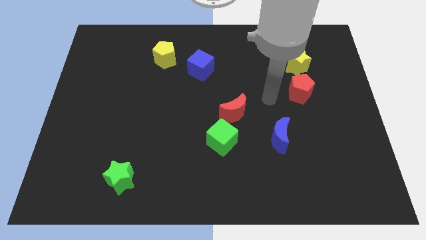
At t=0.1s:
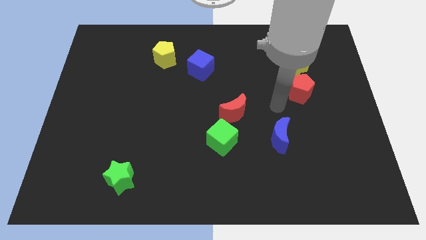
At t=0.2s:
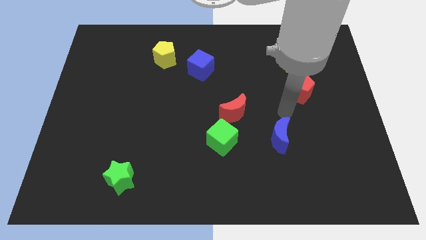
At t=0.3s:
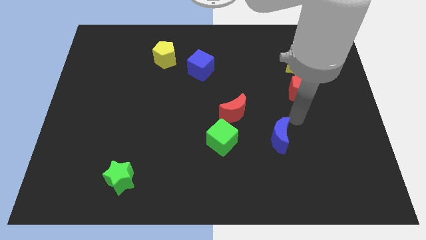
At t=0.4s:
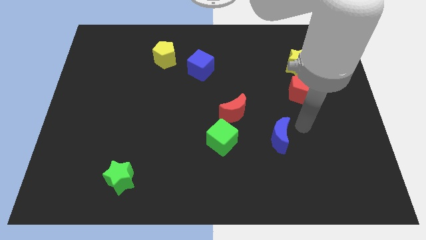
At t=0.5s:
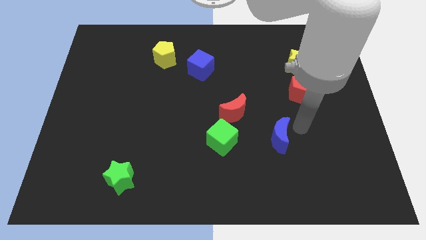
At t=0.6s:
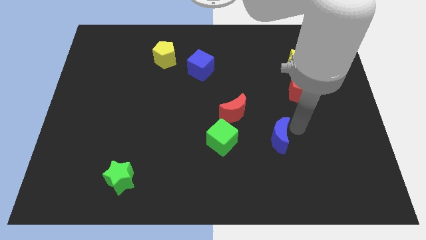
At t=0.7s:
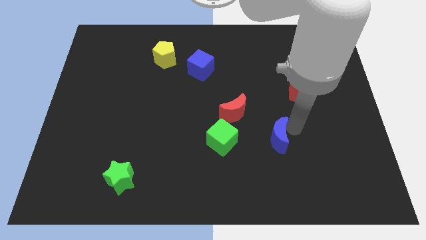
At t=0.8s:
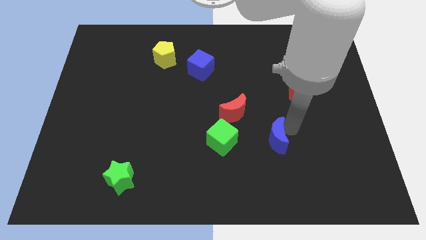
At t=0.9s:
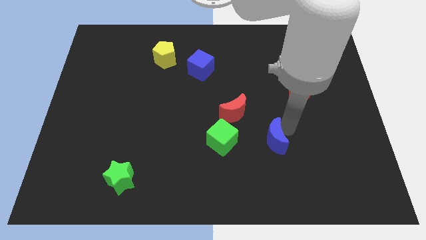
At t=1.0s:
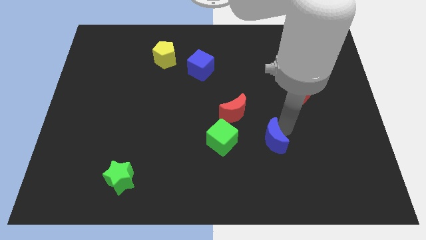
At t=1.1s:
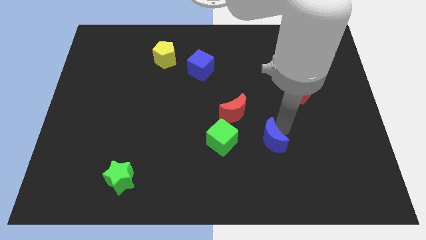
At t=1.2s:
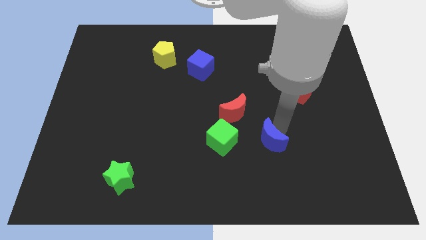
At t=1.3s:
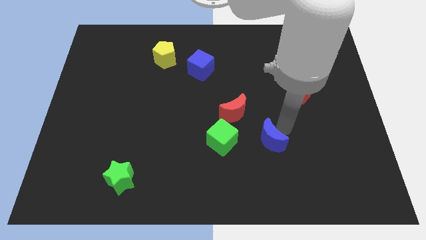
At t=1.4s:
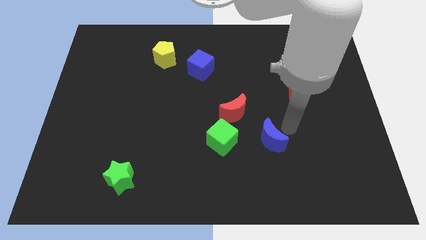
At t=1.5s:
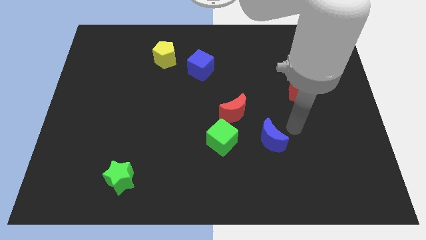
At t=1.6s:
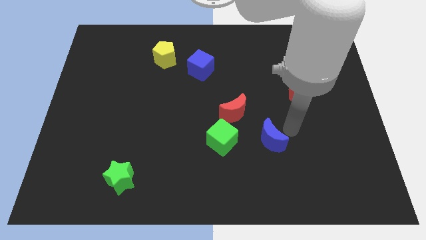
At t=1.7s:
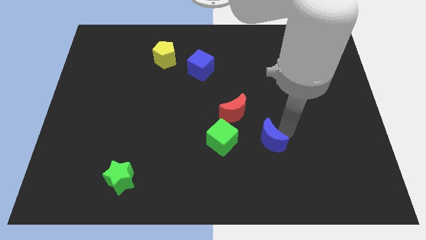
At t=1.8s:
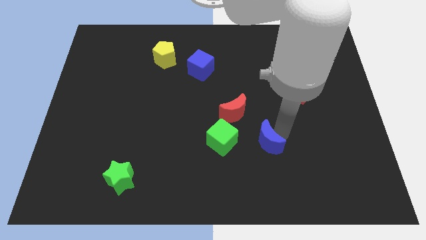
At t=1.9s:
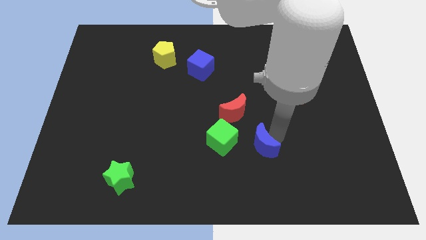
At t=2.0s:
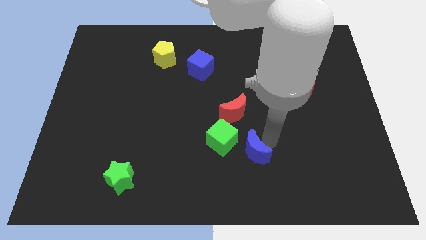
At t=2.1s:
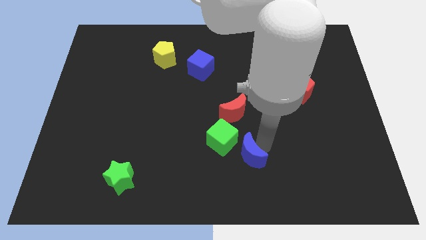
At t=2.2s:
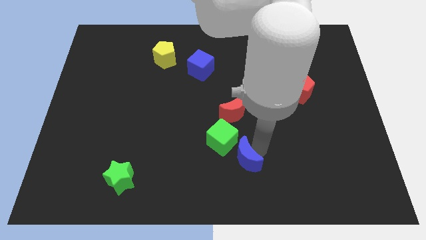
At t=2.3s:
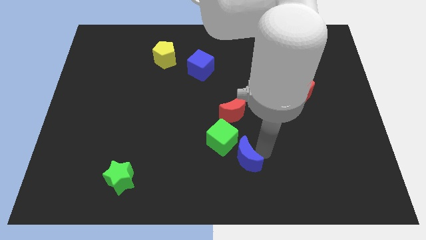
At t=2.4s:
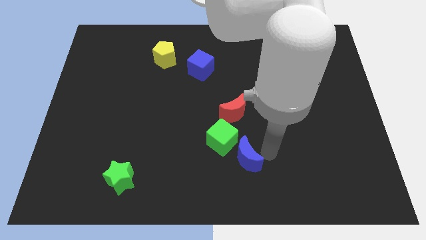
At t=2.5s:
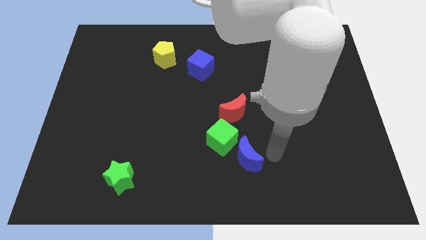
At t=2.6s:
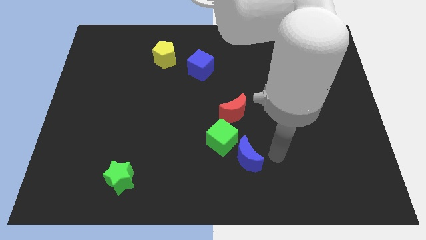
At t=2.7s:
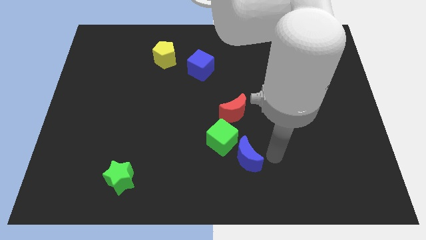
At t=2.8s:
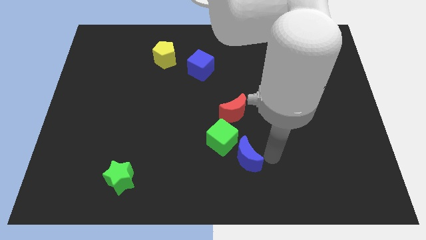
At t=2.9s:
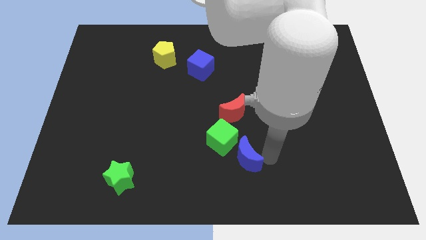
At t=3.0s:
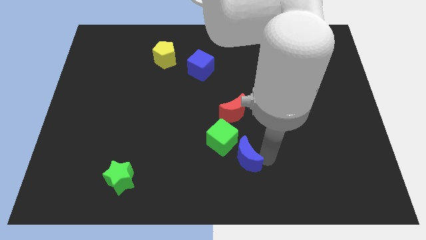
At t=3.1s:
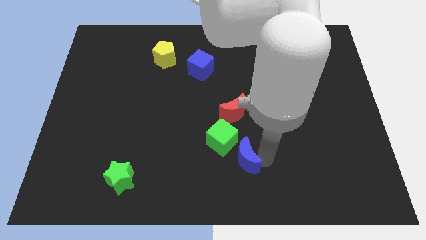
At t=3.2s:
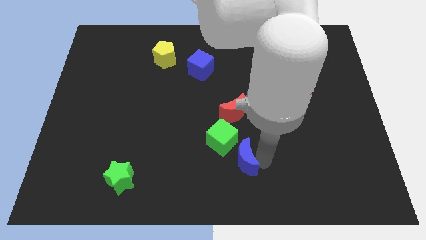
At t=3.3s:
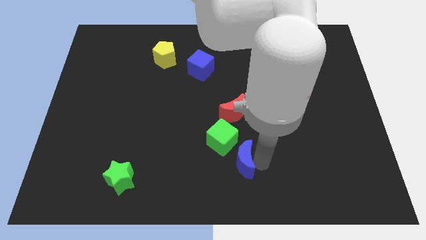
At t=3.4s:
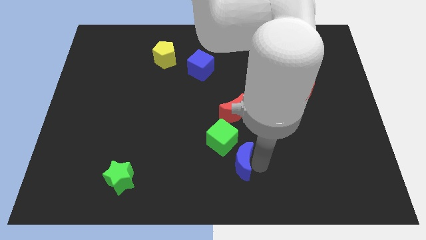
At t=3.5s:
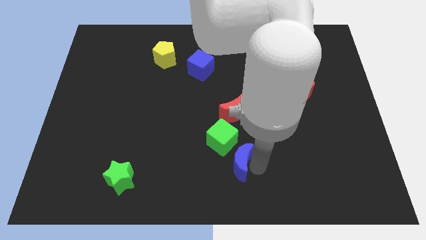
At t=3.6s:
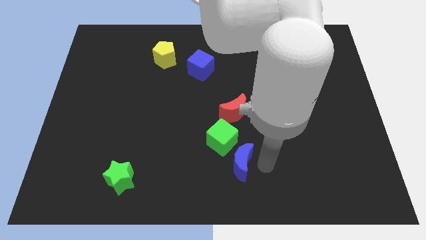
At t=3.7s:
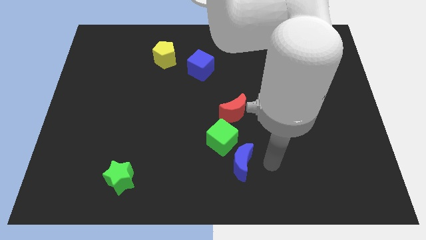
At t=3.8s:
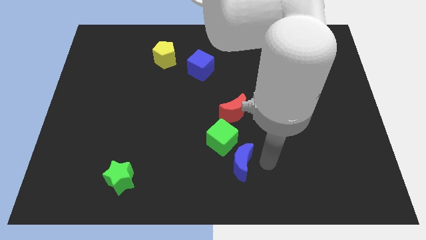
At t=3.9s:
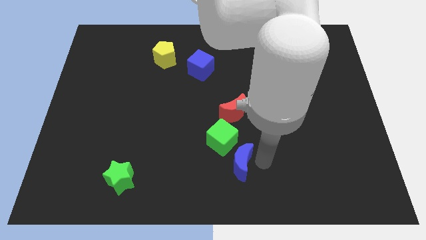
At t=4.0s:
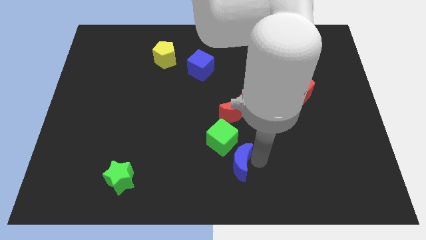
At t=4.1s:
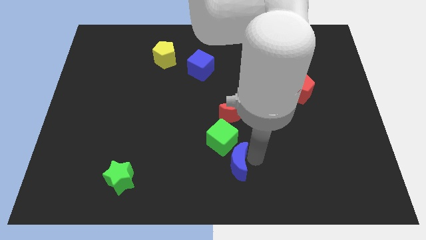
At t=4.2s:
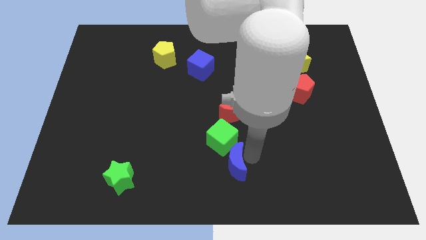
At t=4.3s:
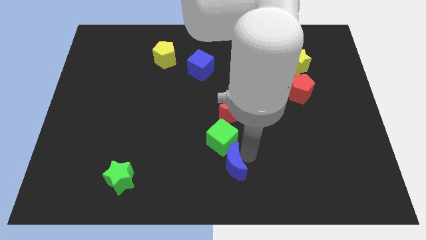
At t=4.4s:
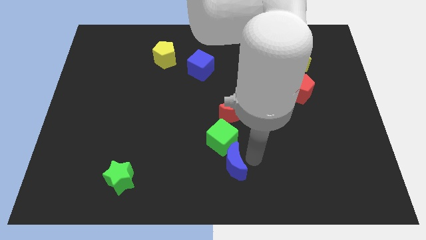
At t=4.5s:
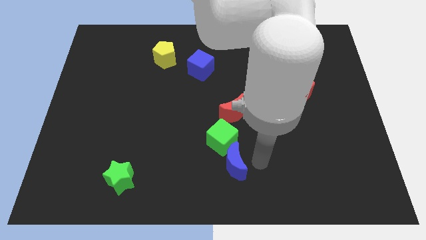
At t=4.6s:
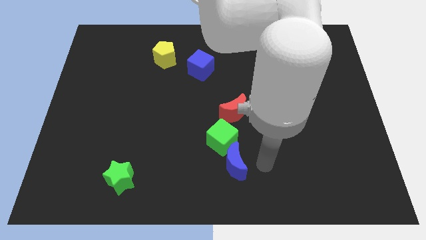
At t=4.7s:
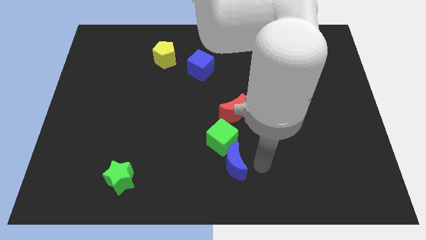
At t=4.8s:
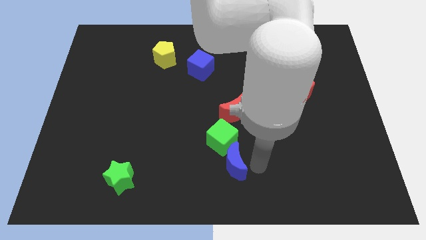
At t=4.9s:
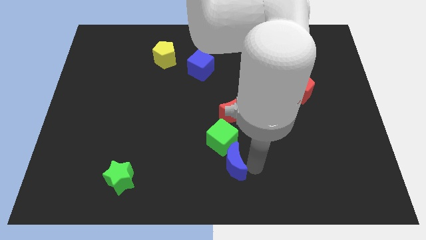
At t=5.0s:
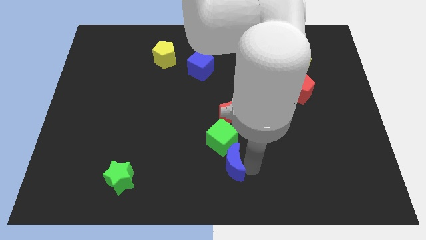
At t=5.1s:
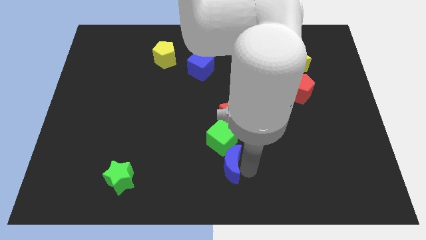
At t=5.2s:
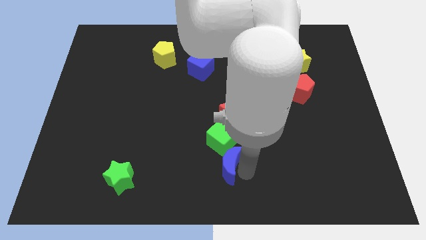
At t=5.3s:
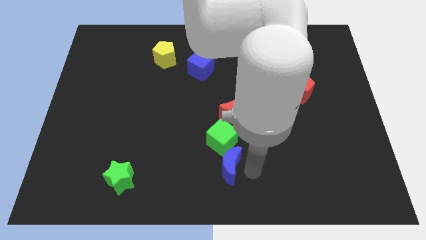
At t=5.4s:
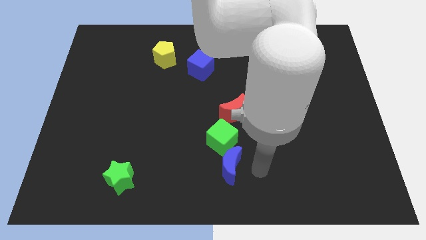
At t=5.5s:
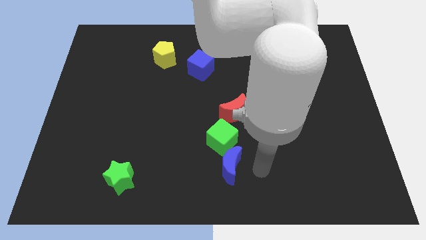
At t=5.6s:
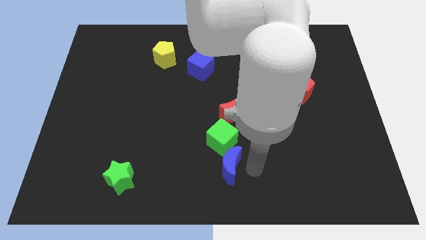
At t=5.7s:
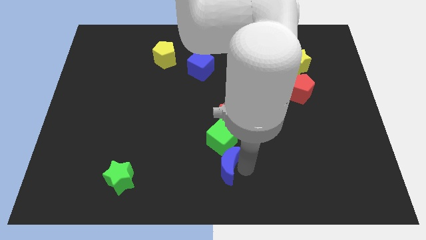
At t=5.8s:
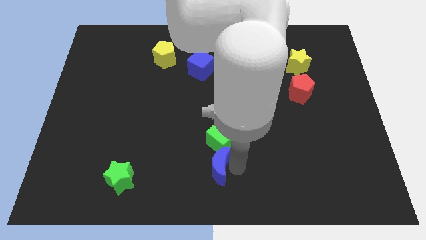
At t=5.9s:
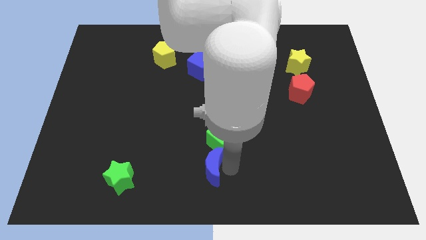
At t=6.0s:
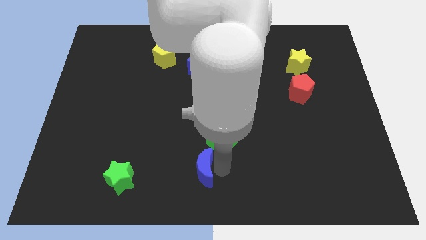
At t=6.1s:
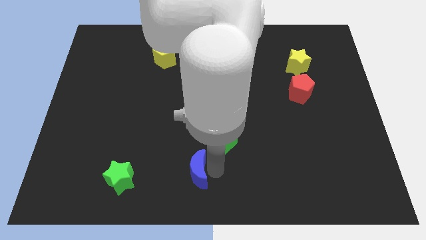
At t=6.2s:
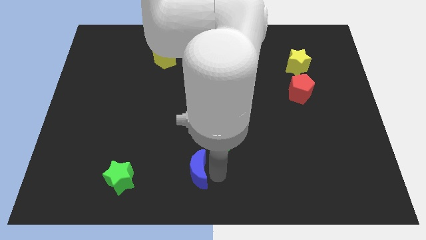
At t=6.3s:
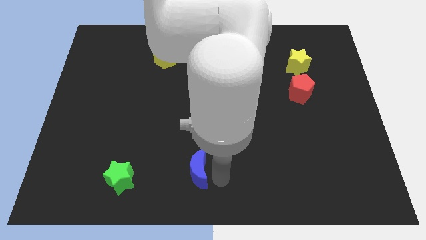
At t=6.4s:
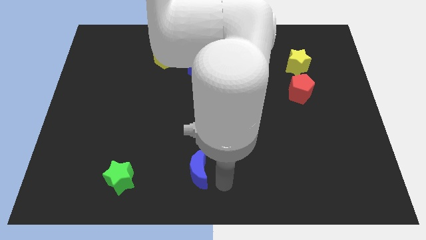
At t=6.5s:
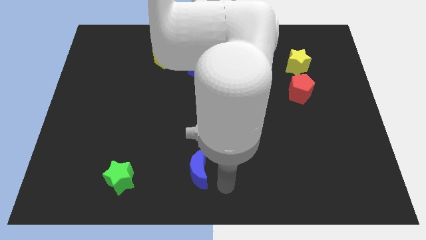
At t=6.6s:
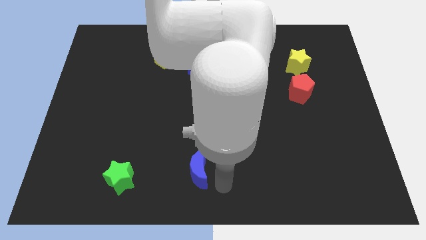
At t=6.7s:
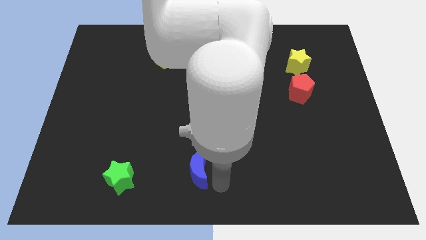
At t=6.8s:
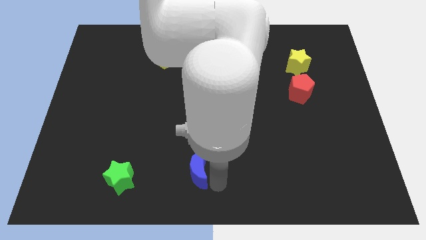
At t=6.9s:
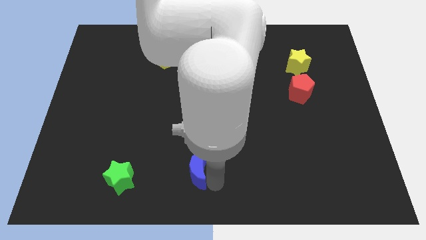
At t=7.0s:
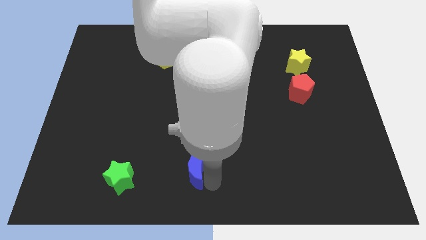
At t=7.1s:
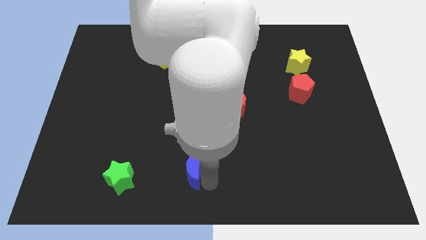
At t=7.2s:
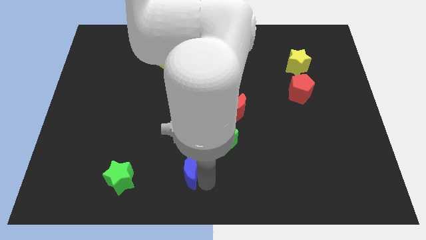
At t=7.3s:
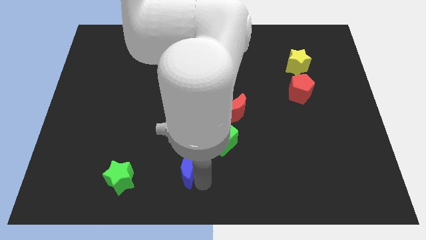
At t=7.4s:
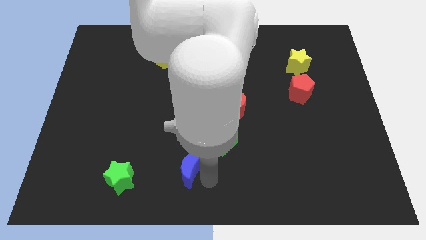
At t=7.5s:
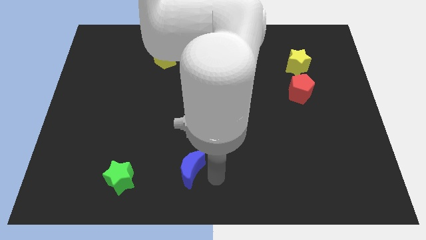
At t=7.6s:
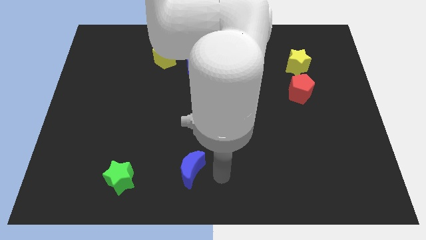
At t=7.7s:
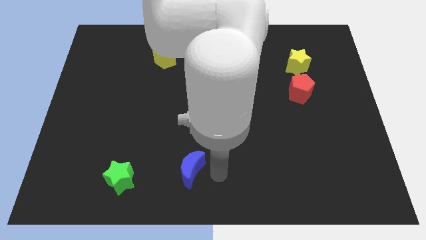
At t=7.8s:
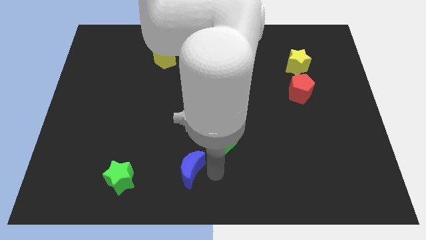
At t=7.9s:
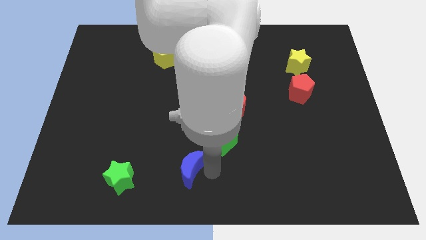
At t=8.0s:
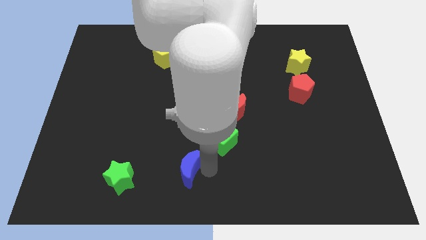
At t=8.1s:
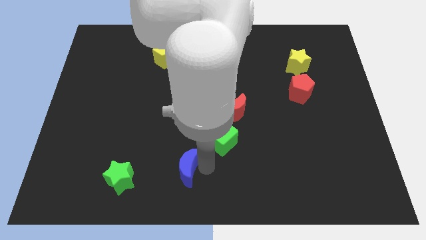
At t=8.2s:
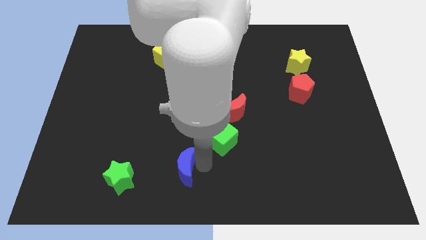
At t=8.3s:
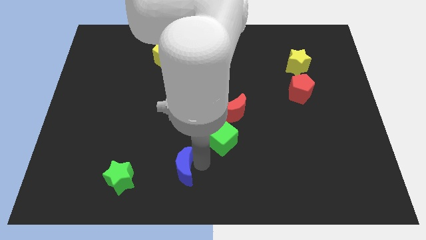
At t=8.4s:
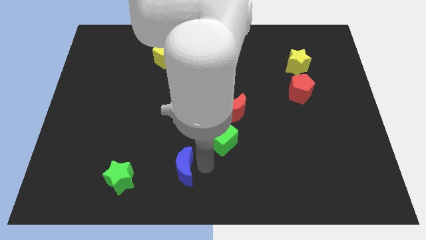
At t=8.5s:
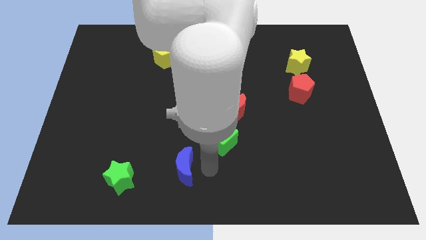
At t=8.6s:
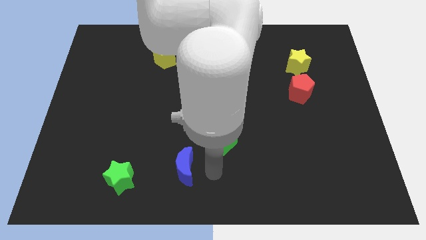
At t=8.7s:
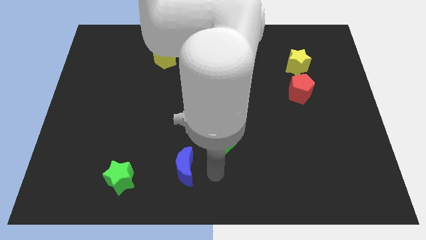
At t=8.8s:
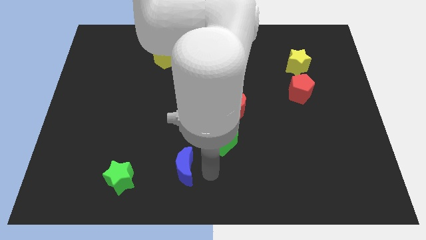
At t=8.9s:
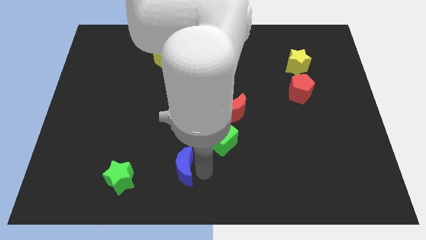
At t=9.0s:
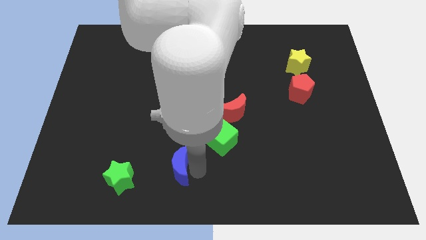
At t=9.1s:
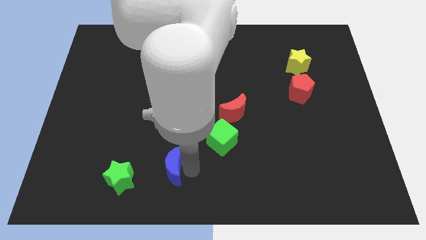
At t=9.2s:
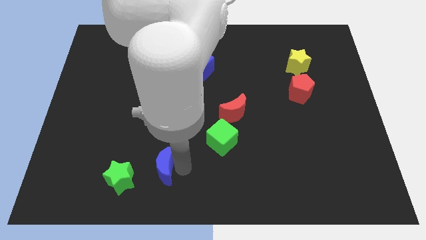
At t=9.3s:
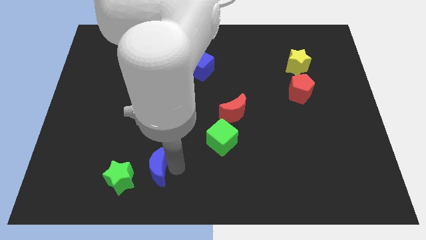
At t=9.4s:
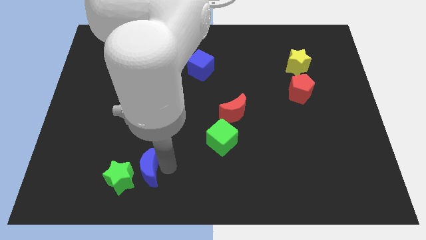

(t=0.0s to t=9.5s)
slide the blue moon to the green star
